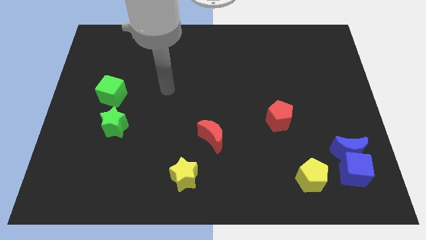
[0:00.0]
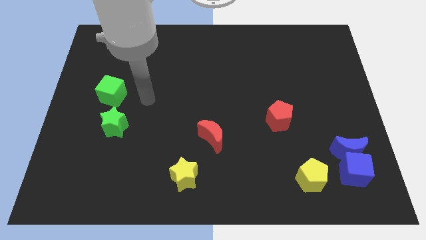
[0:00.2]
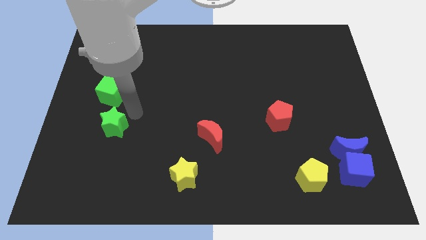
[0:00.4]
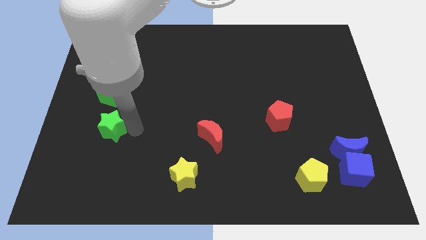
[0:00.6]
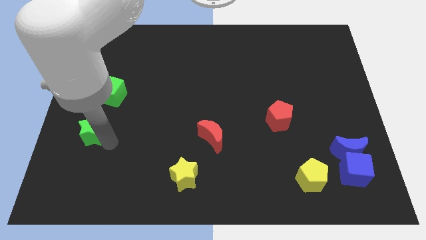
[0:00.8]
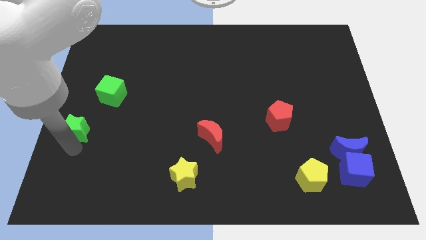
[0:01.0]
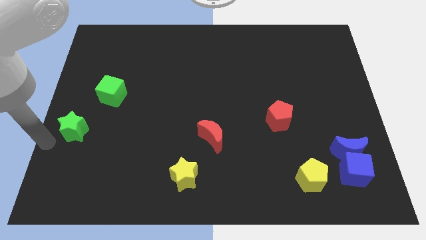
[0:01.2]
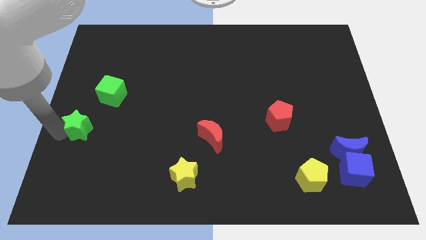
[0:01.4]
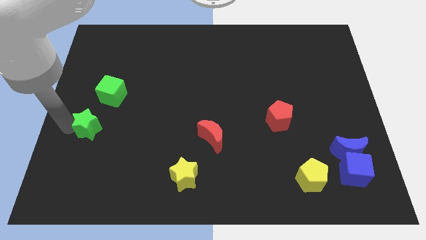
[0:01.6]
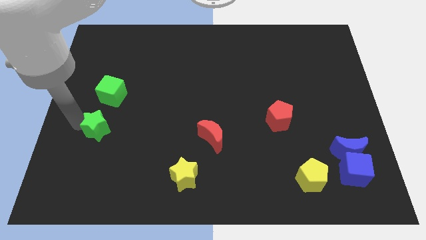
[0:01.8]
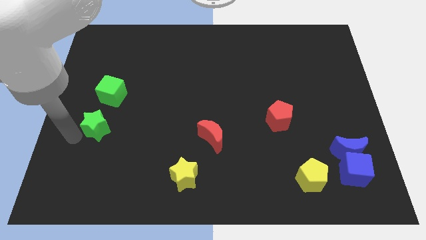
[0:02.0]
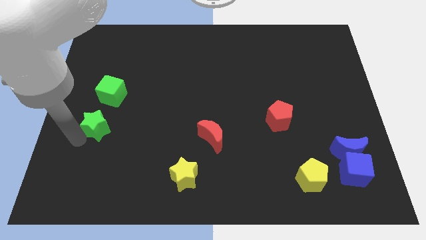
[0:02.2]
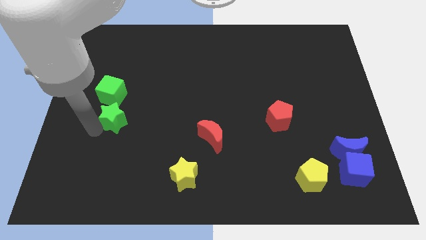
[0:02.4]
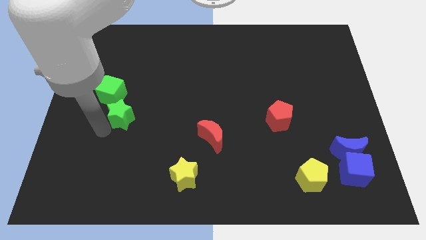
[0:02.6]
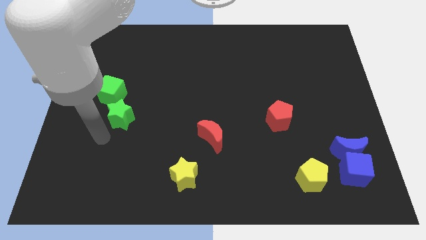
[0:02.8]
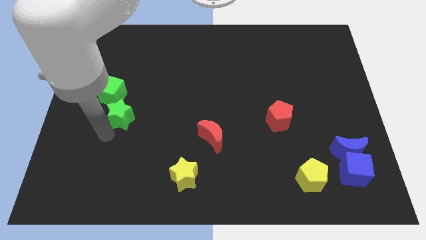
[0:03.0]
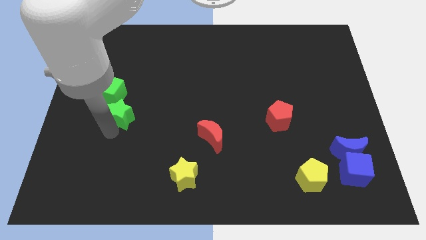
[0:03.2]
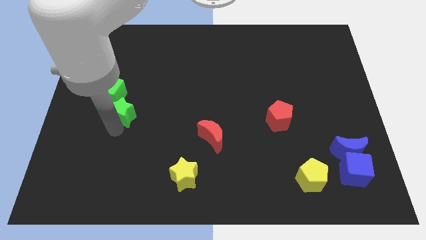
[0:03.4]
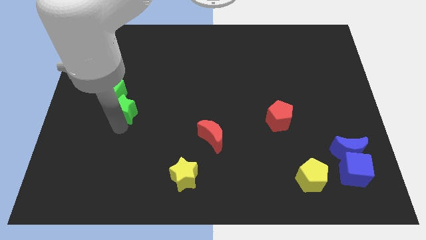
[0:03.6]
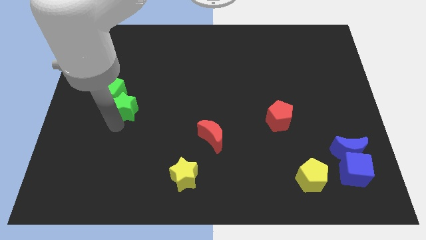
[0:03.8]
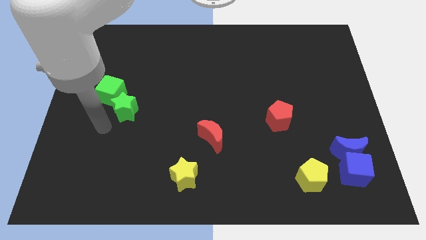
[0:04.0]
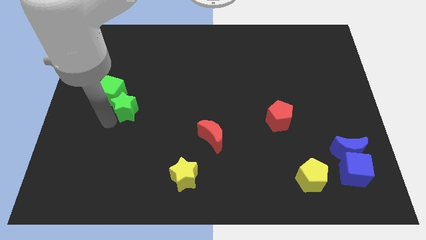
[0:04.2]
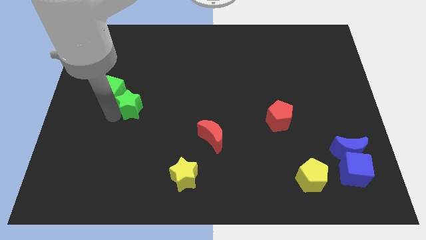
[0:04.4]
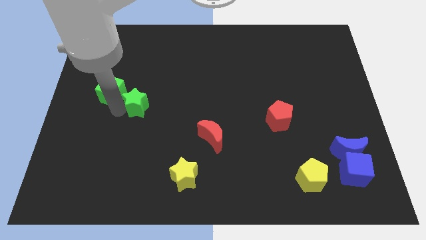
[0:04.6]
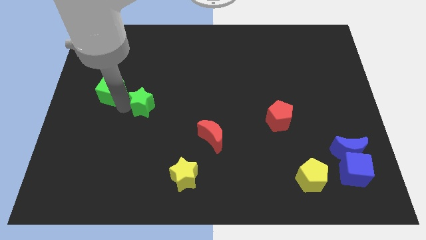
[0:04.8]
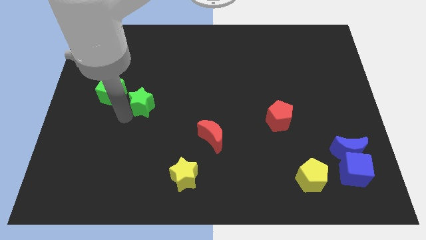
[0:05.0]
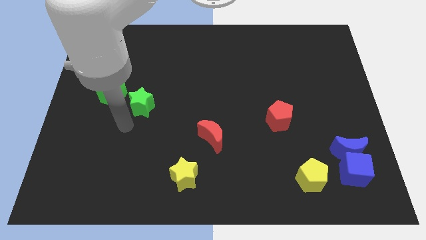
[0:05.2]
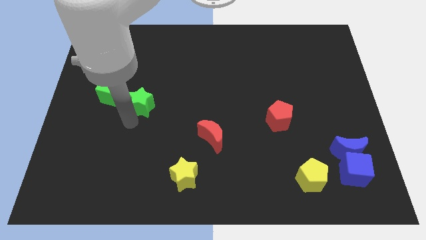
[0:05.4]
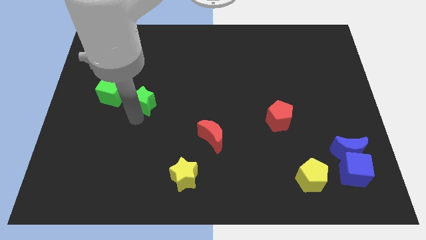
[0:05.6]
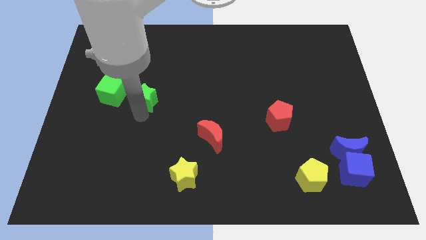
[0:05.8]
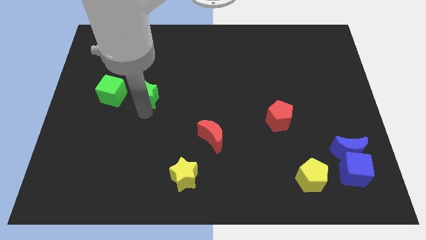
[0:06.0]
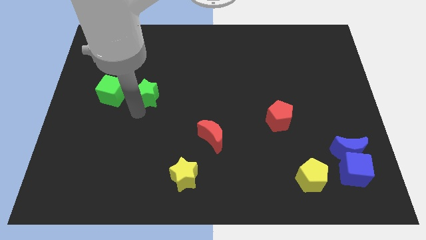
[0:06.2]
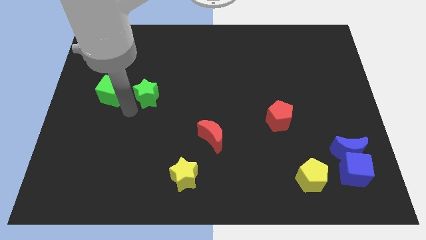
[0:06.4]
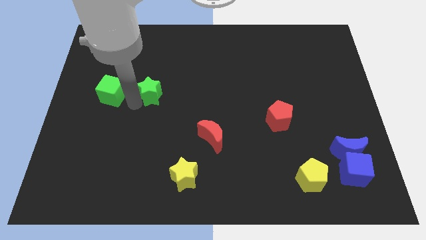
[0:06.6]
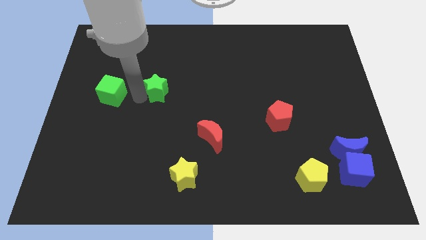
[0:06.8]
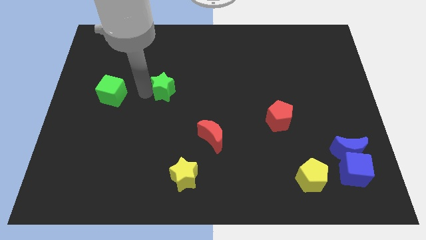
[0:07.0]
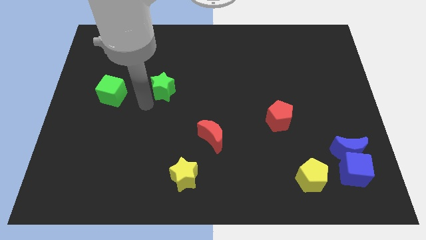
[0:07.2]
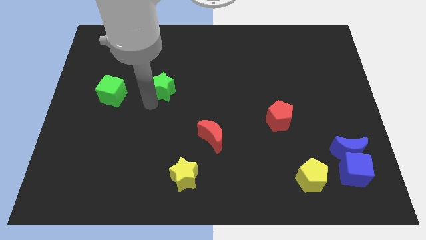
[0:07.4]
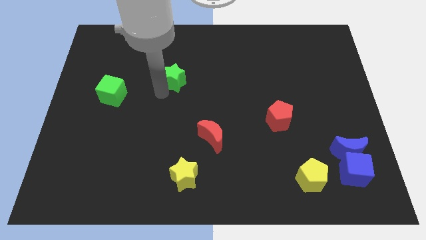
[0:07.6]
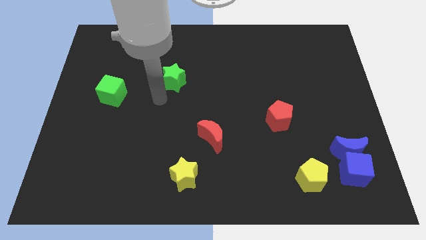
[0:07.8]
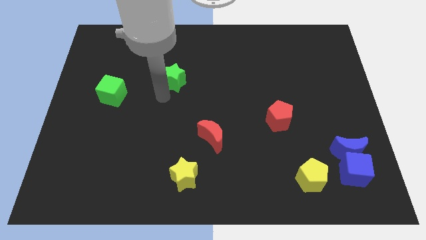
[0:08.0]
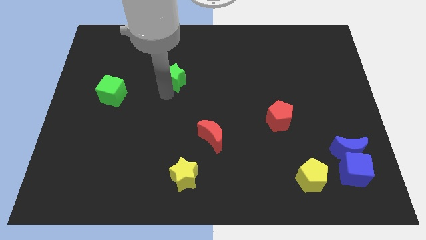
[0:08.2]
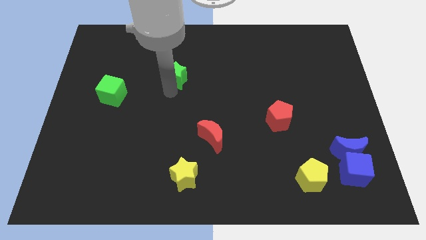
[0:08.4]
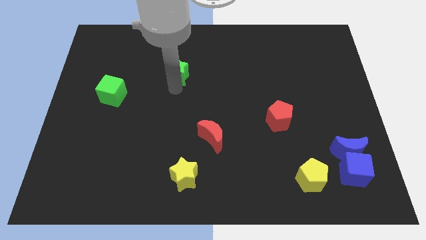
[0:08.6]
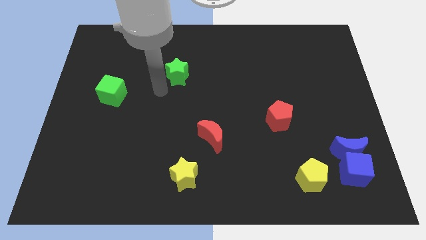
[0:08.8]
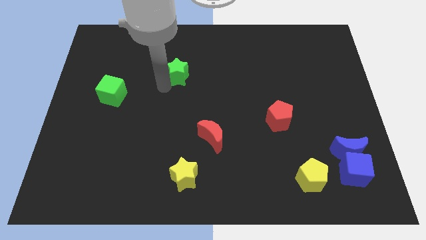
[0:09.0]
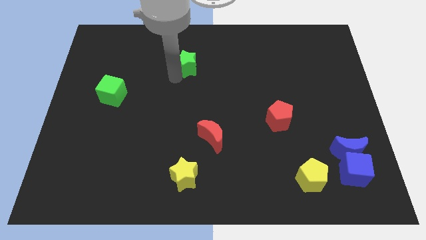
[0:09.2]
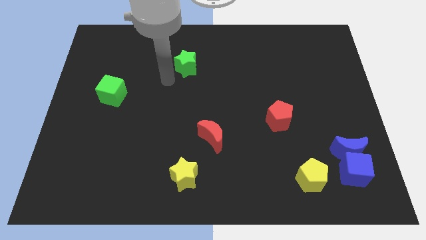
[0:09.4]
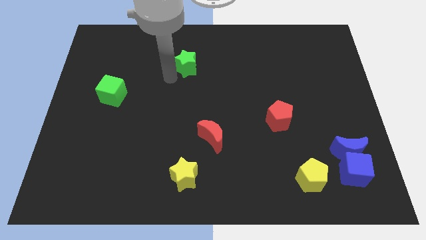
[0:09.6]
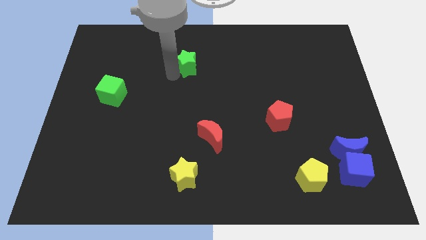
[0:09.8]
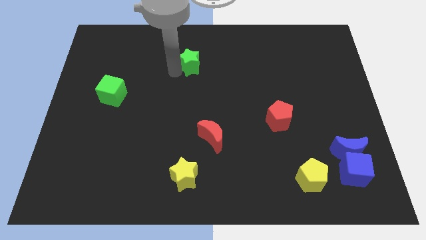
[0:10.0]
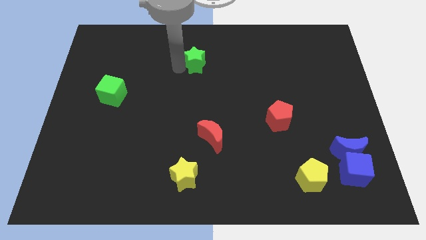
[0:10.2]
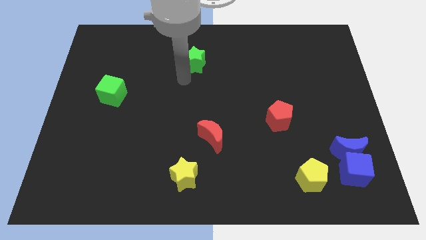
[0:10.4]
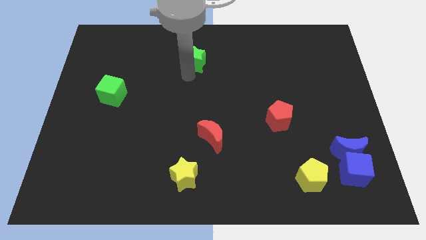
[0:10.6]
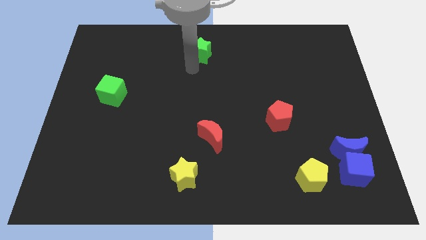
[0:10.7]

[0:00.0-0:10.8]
slide the green star to the top

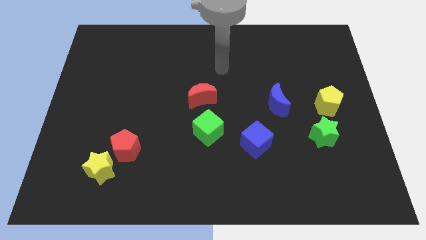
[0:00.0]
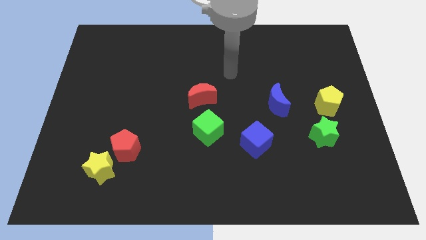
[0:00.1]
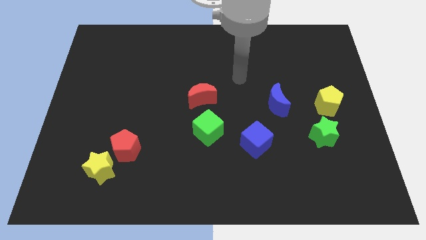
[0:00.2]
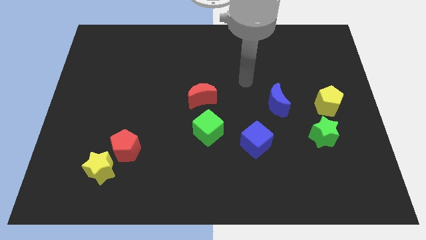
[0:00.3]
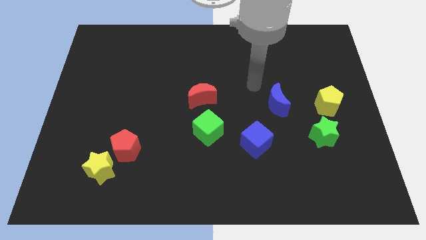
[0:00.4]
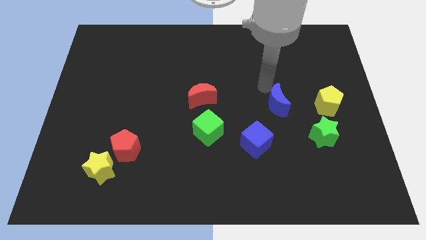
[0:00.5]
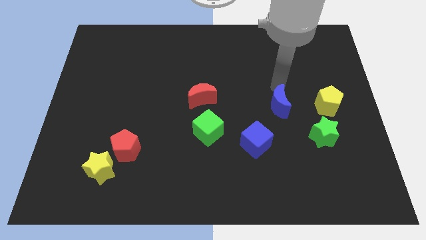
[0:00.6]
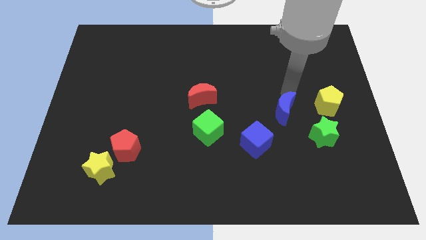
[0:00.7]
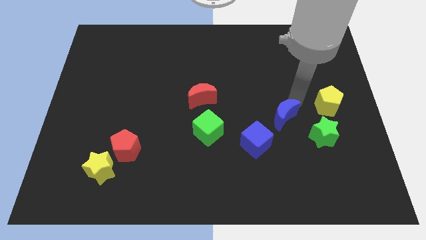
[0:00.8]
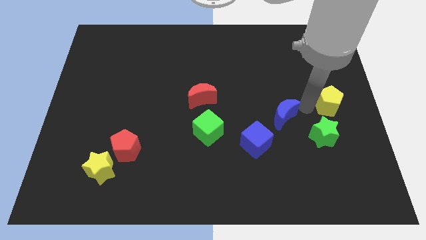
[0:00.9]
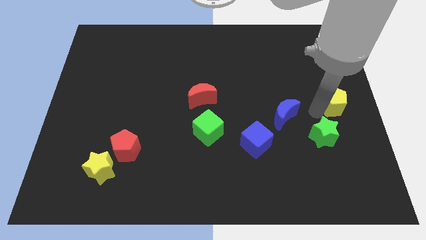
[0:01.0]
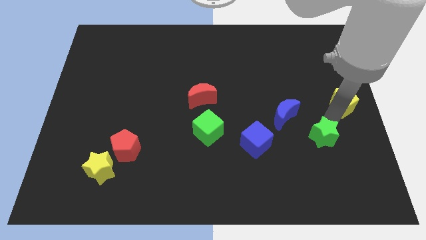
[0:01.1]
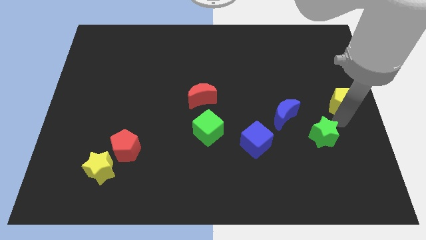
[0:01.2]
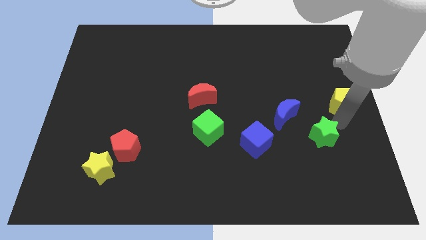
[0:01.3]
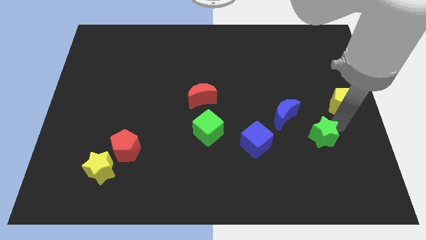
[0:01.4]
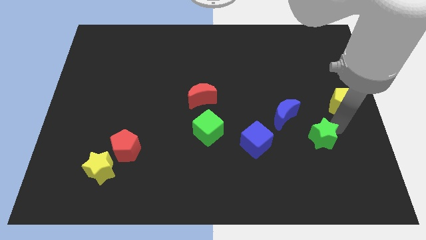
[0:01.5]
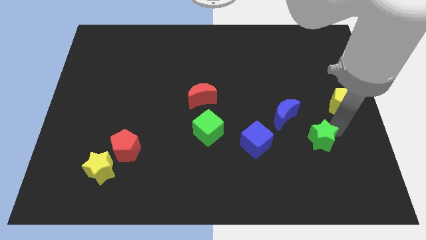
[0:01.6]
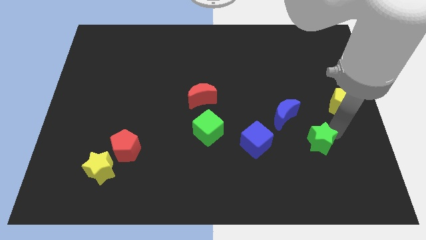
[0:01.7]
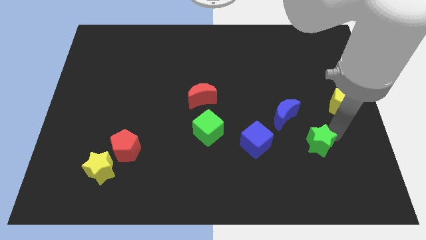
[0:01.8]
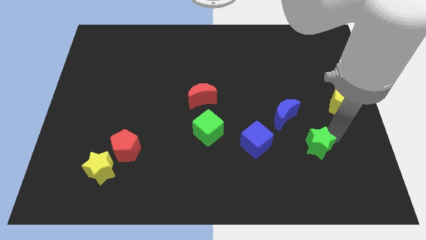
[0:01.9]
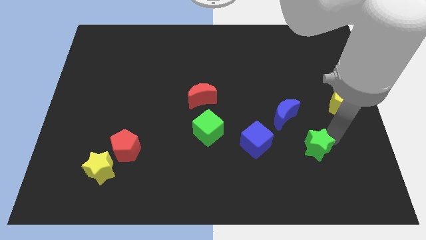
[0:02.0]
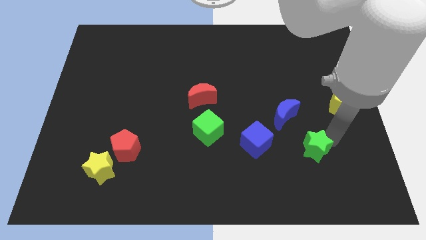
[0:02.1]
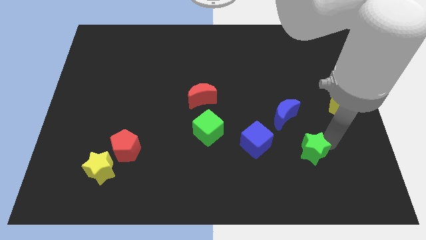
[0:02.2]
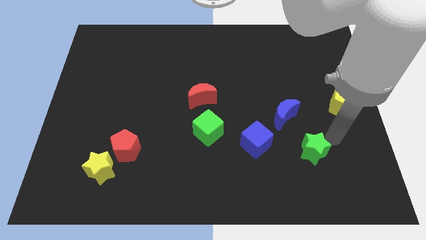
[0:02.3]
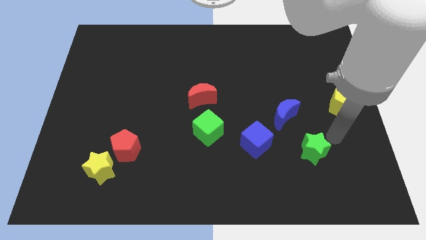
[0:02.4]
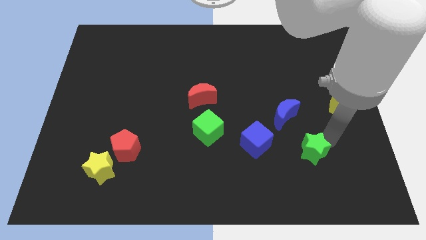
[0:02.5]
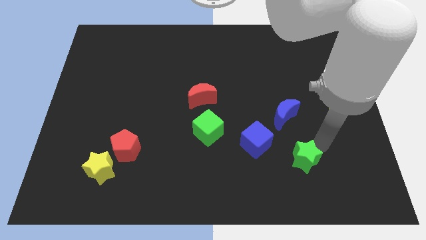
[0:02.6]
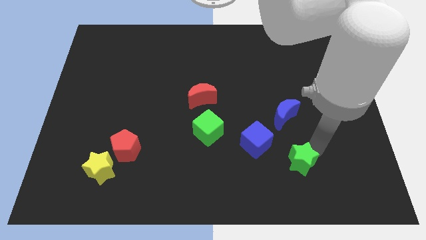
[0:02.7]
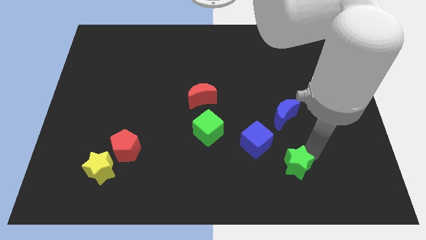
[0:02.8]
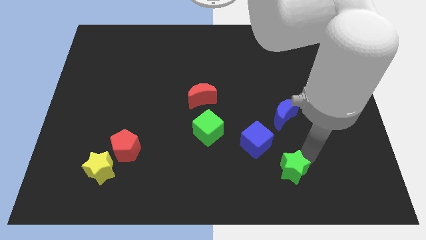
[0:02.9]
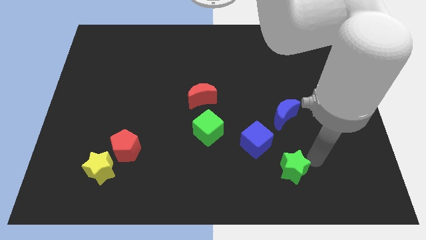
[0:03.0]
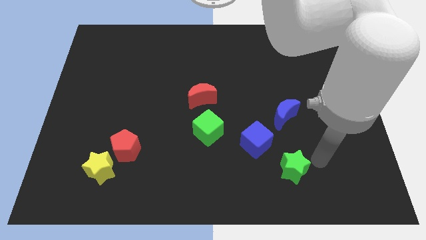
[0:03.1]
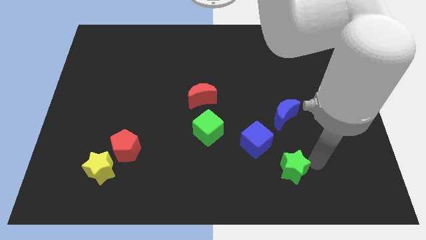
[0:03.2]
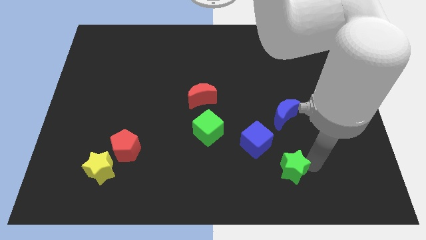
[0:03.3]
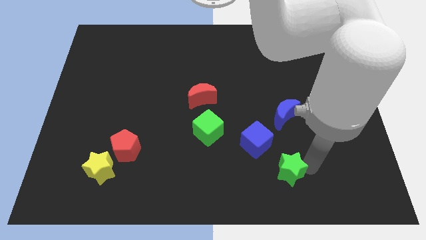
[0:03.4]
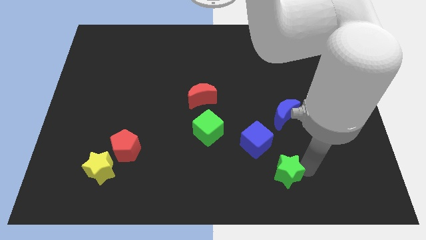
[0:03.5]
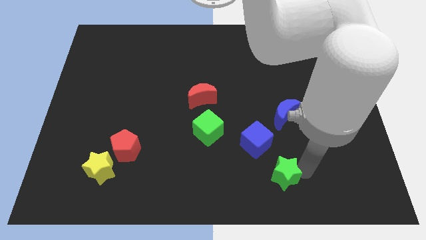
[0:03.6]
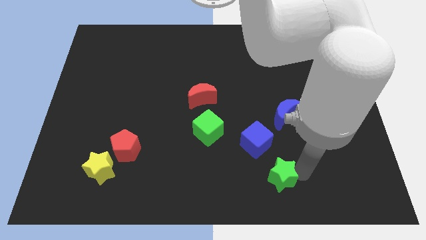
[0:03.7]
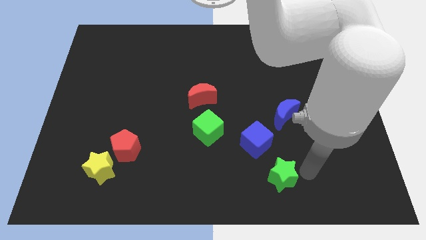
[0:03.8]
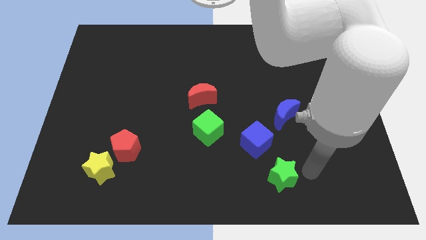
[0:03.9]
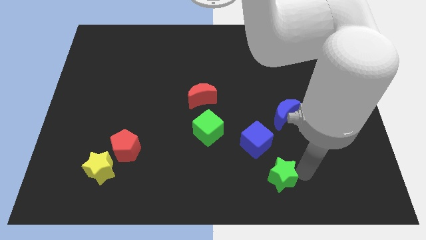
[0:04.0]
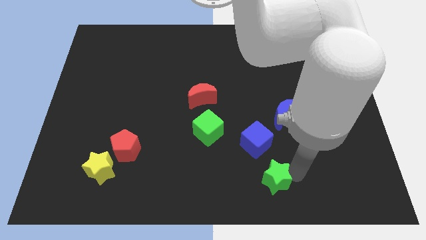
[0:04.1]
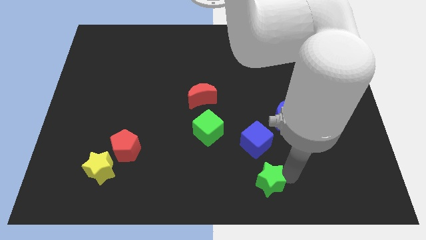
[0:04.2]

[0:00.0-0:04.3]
slide the green star to the bottom
